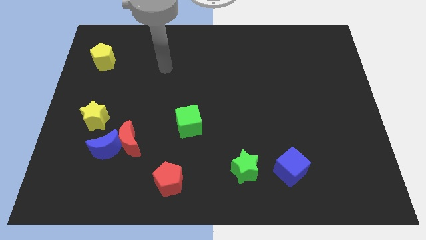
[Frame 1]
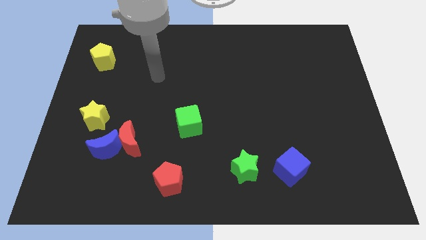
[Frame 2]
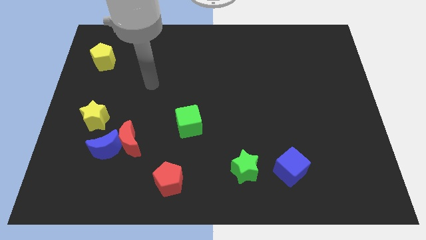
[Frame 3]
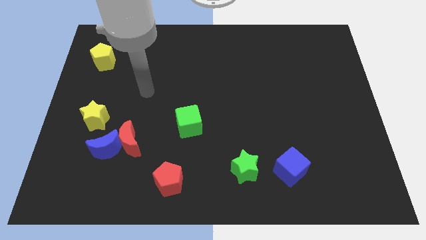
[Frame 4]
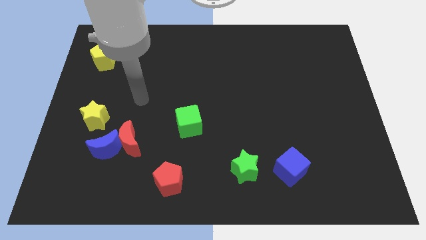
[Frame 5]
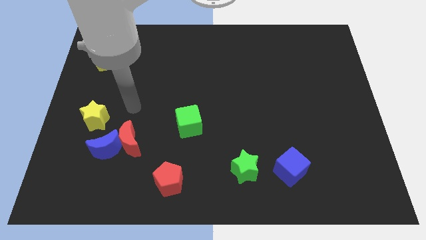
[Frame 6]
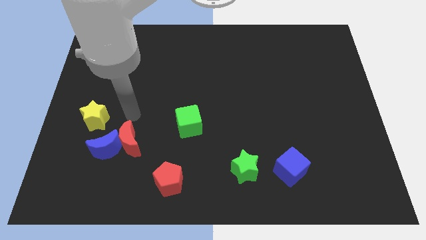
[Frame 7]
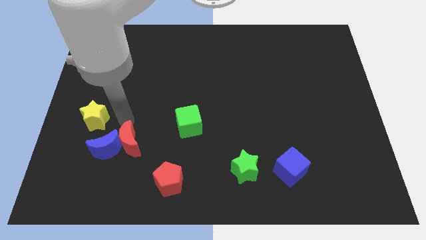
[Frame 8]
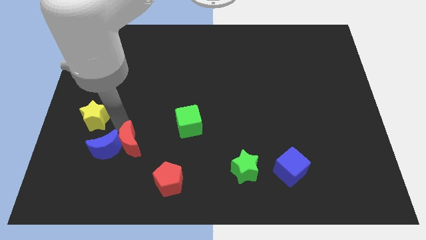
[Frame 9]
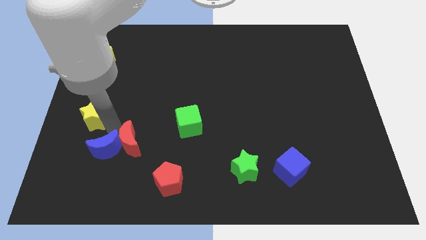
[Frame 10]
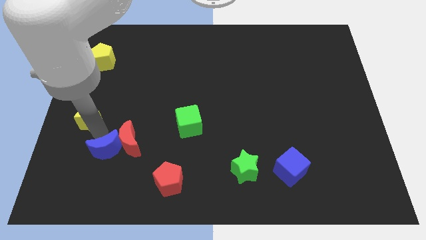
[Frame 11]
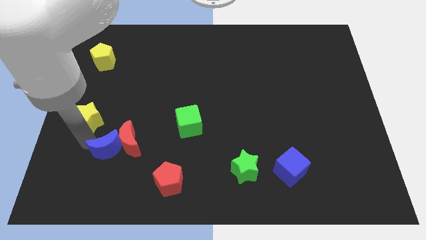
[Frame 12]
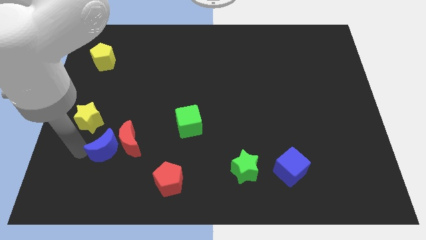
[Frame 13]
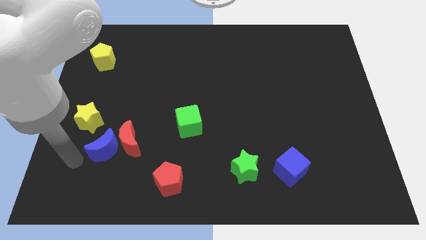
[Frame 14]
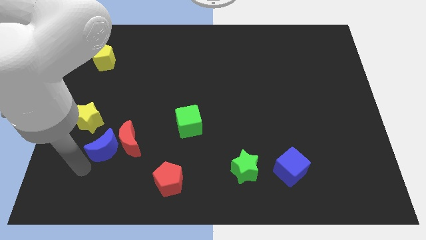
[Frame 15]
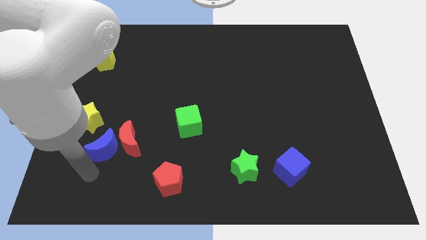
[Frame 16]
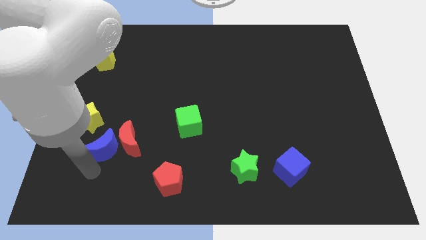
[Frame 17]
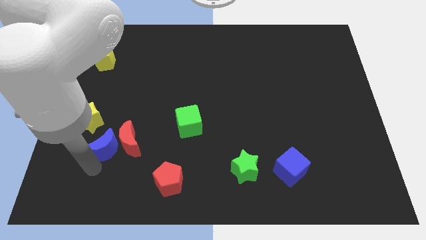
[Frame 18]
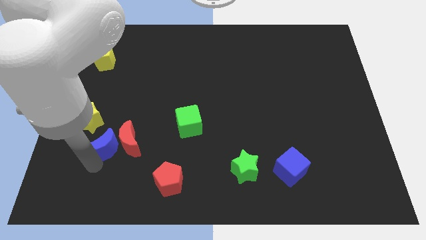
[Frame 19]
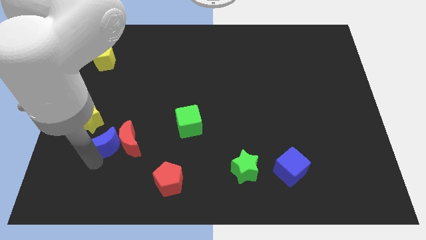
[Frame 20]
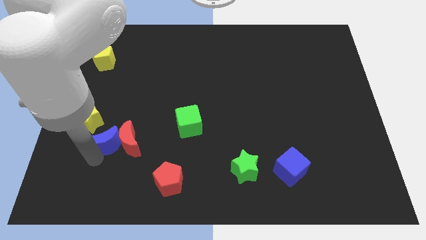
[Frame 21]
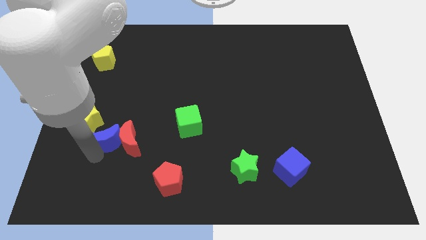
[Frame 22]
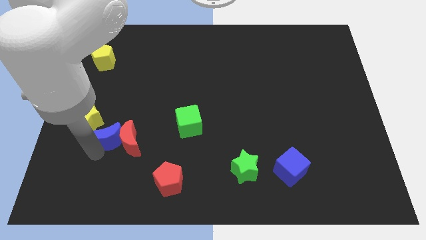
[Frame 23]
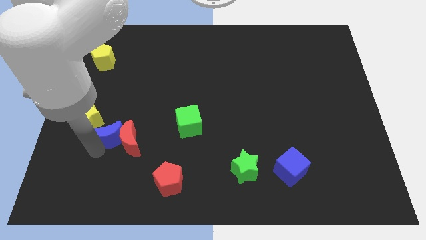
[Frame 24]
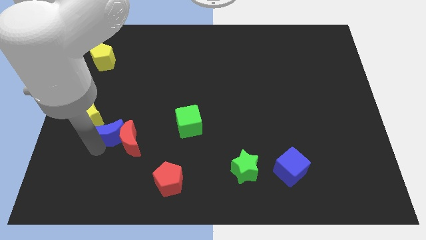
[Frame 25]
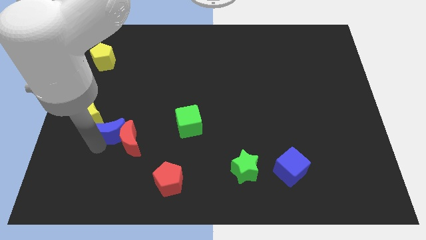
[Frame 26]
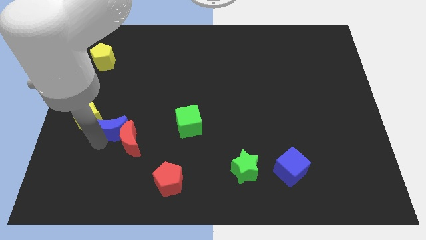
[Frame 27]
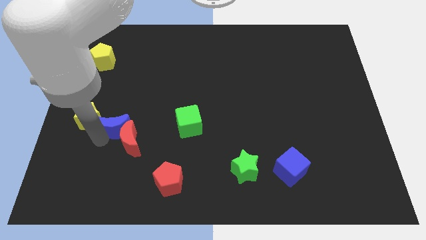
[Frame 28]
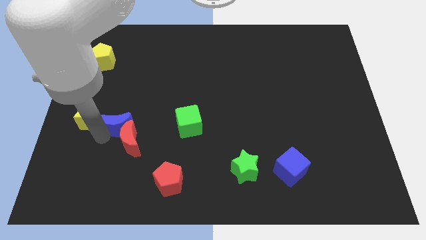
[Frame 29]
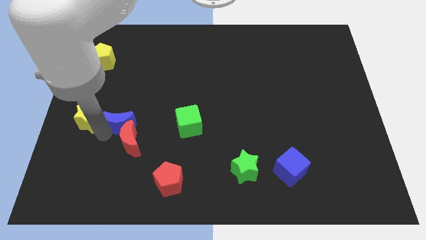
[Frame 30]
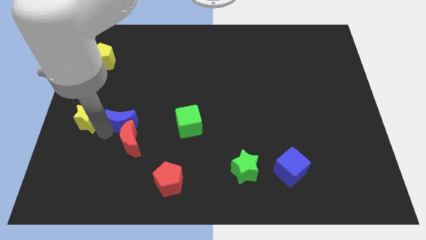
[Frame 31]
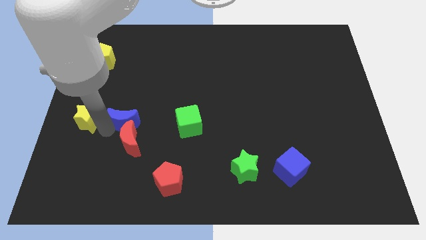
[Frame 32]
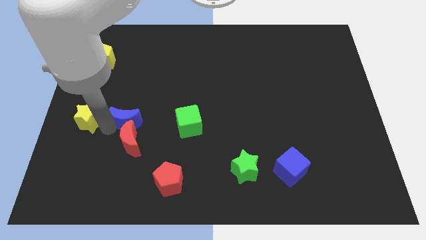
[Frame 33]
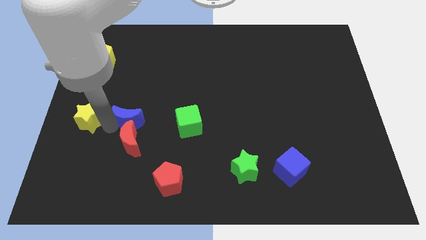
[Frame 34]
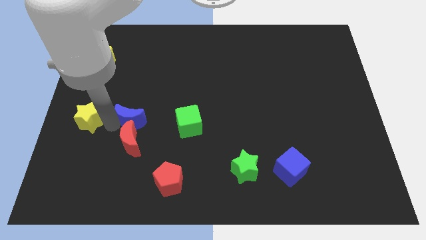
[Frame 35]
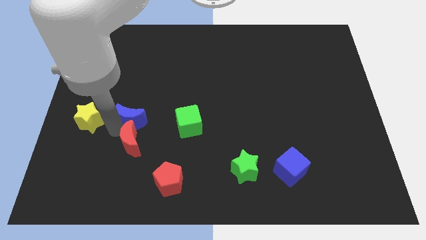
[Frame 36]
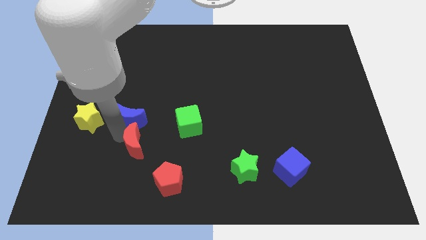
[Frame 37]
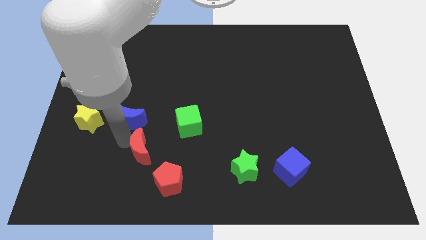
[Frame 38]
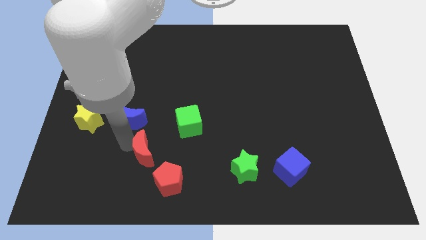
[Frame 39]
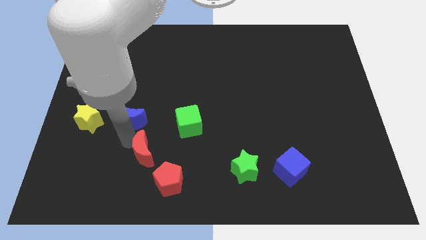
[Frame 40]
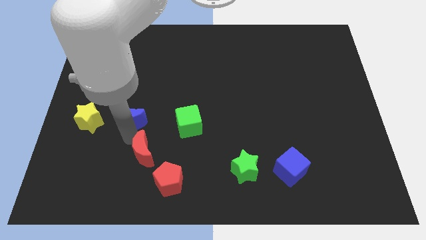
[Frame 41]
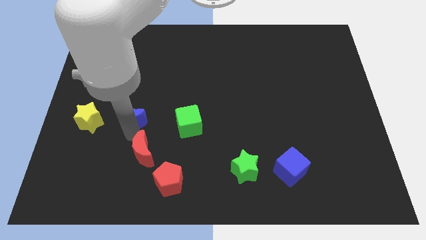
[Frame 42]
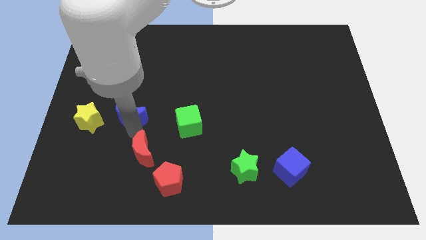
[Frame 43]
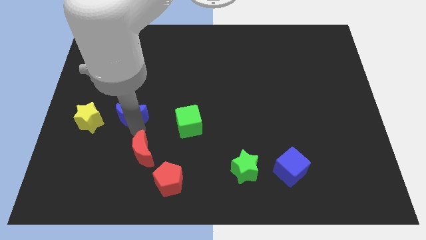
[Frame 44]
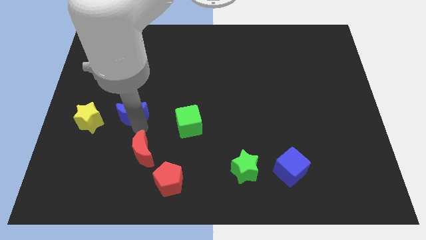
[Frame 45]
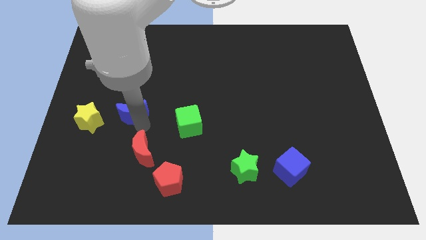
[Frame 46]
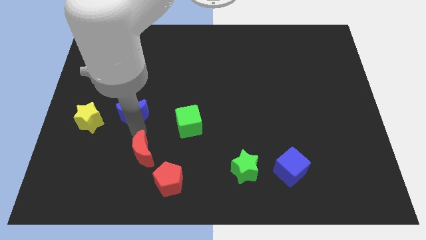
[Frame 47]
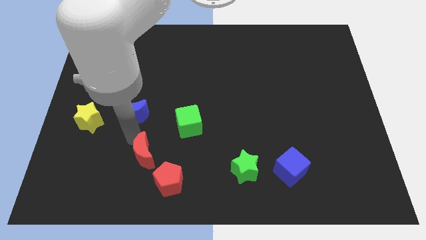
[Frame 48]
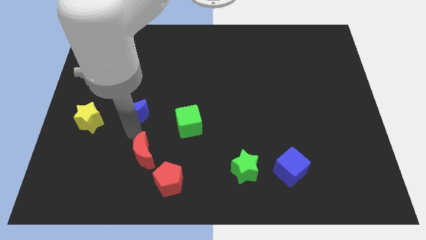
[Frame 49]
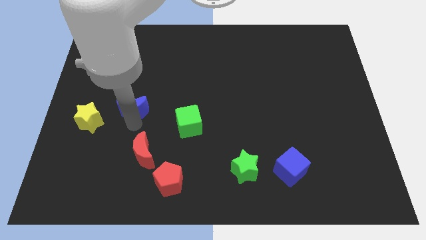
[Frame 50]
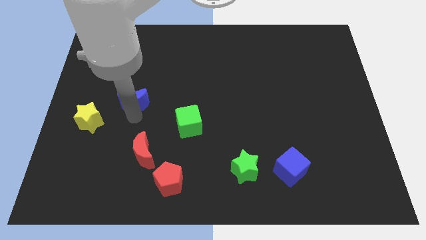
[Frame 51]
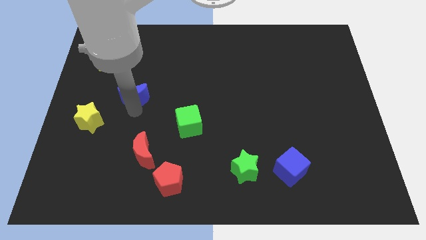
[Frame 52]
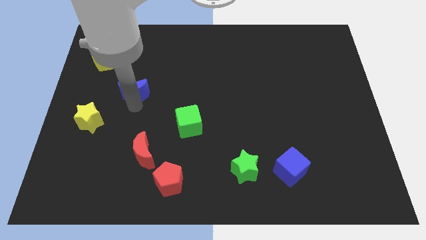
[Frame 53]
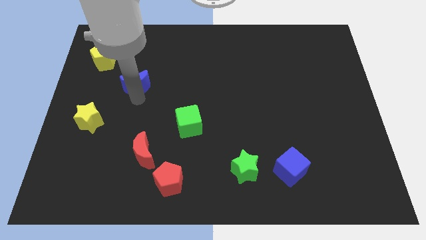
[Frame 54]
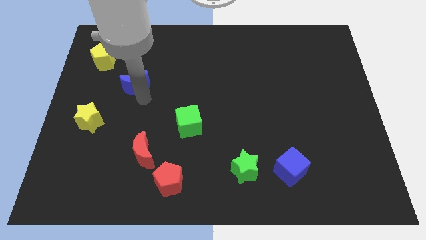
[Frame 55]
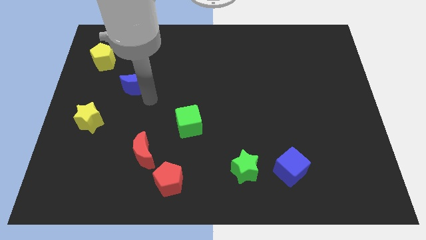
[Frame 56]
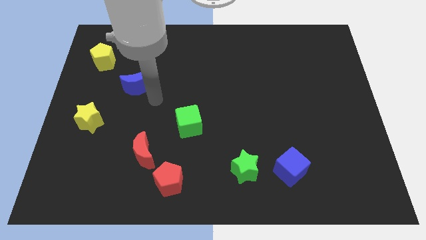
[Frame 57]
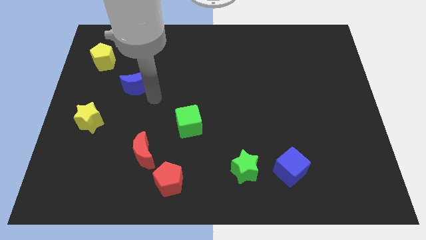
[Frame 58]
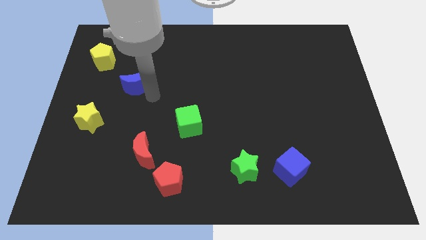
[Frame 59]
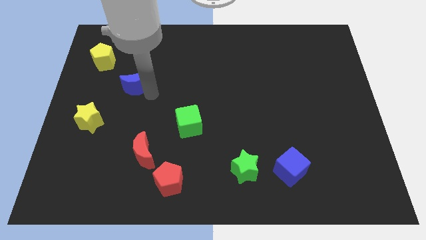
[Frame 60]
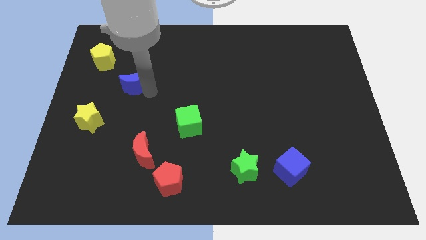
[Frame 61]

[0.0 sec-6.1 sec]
slide the blue moon diagonally down and to the right of the yellow pentagon

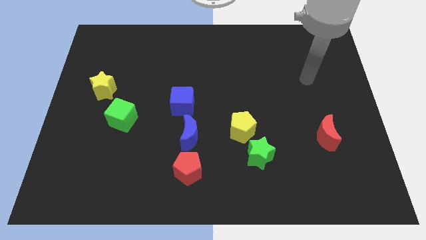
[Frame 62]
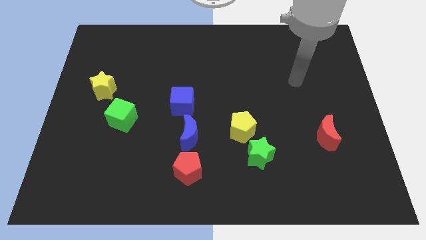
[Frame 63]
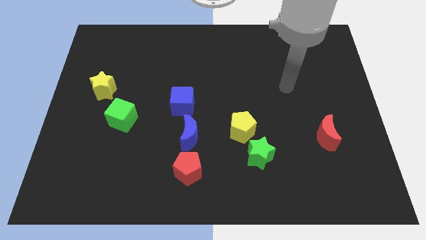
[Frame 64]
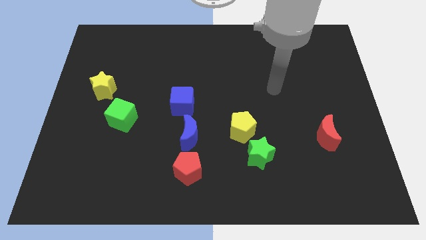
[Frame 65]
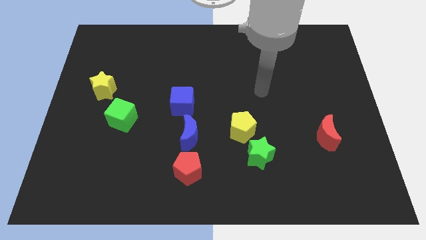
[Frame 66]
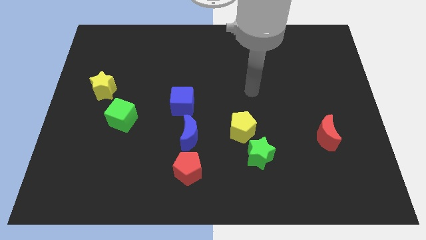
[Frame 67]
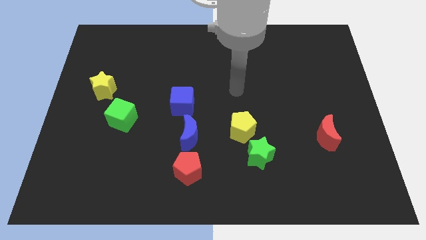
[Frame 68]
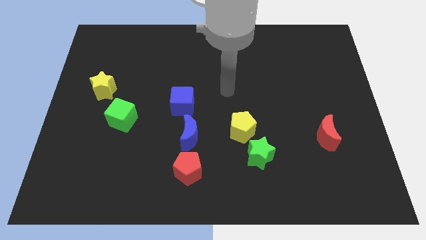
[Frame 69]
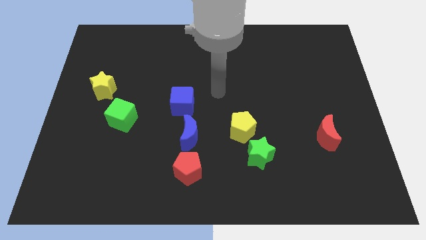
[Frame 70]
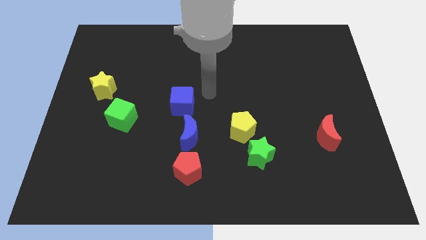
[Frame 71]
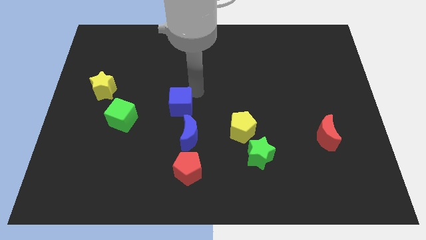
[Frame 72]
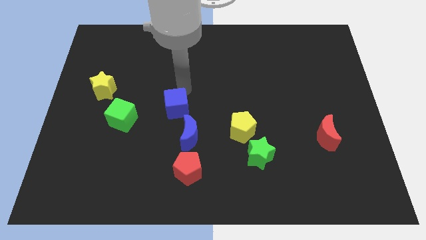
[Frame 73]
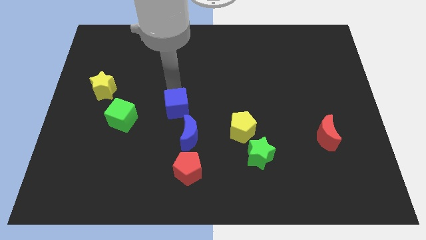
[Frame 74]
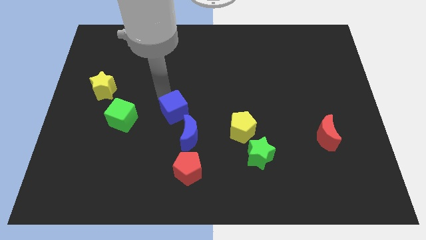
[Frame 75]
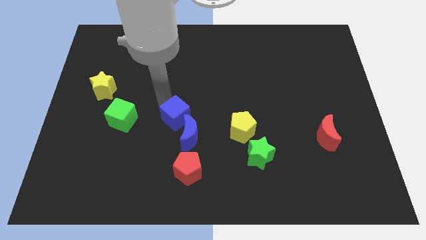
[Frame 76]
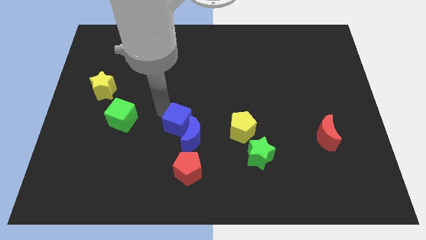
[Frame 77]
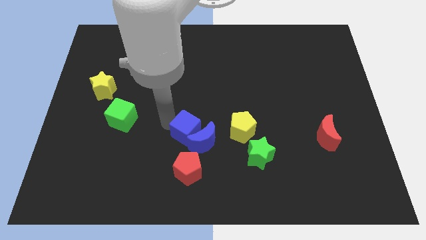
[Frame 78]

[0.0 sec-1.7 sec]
put the blue moon to the bottom left side of the yellow pentagon
